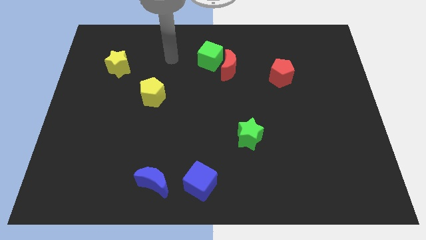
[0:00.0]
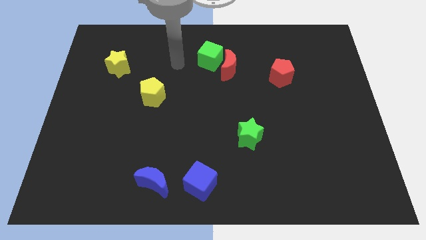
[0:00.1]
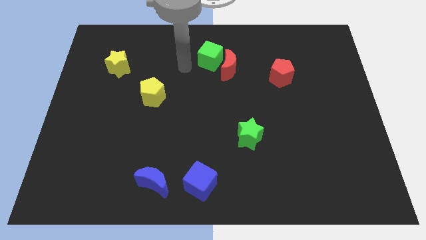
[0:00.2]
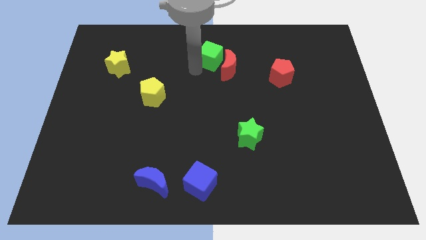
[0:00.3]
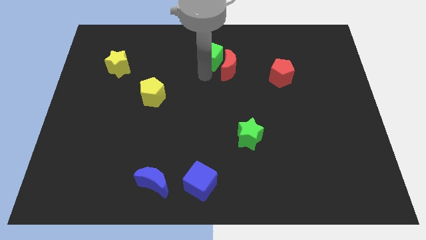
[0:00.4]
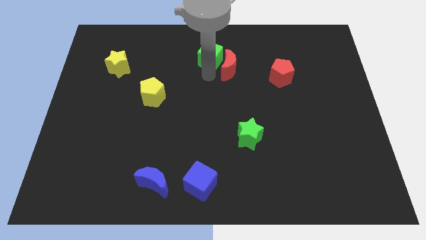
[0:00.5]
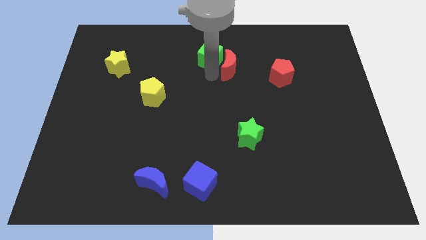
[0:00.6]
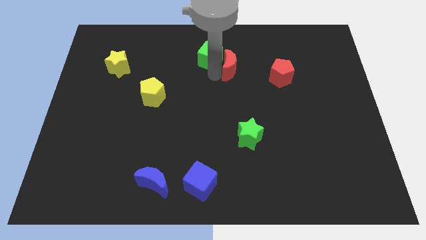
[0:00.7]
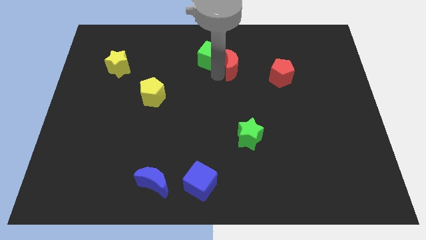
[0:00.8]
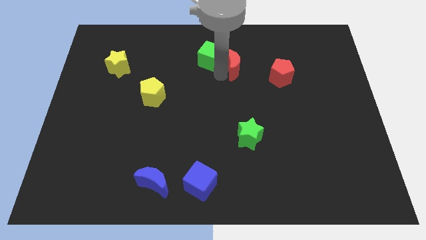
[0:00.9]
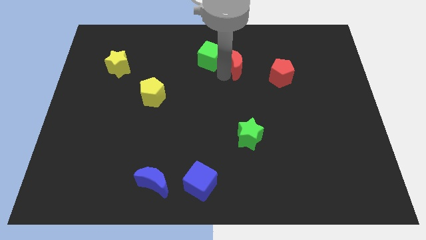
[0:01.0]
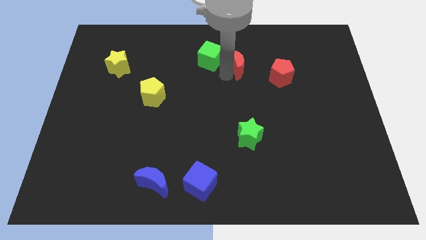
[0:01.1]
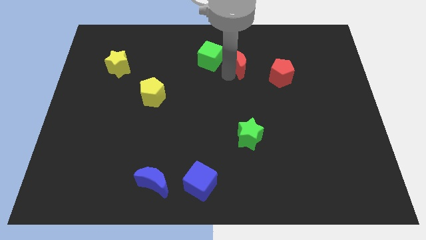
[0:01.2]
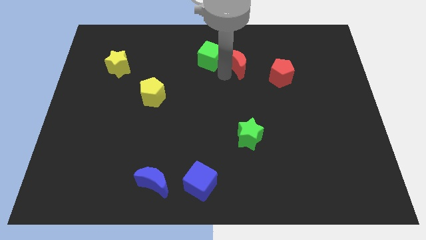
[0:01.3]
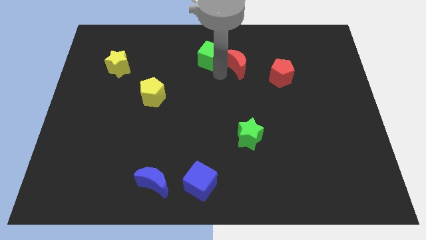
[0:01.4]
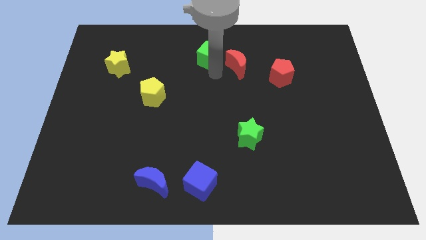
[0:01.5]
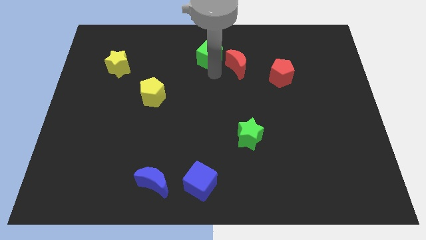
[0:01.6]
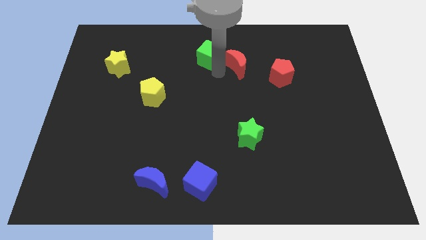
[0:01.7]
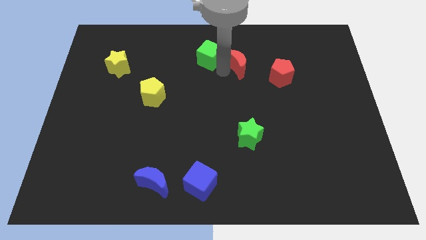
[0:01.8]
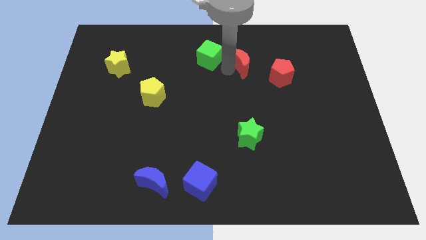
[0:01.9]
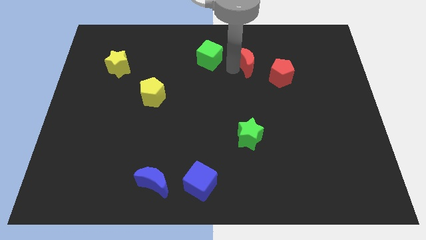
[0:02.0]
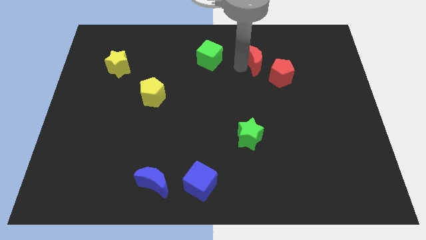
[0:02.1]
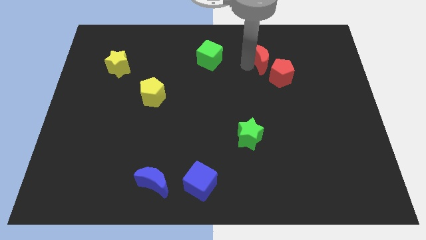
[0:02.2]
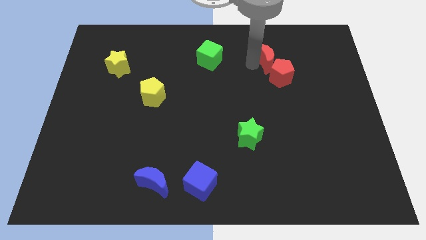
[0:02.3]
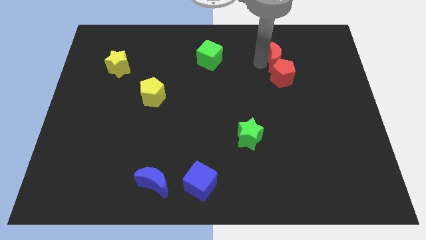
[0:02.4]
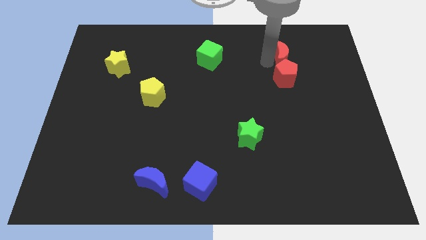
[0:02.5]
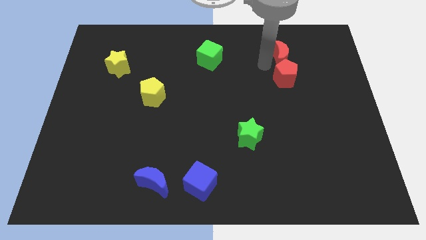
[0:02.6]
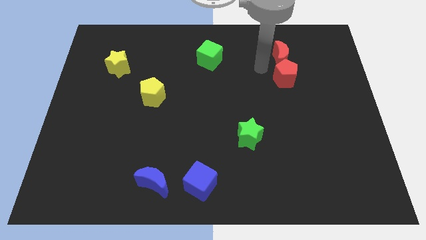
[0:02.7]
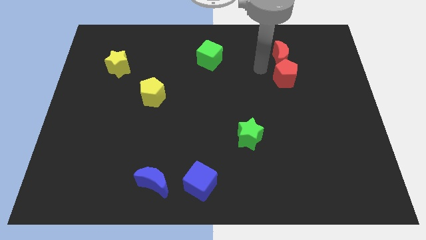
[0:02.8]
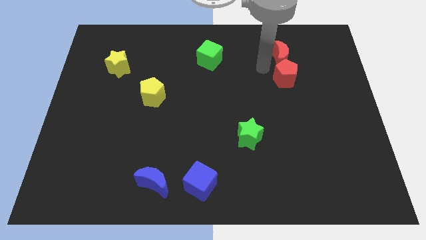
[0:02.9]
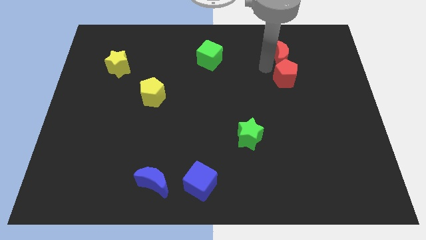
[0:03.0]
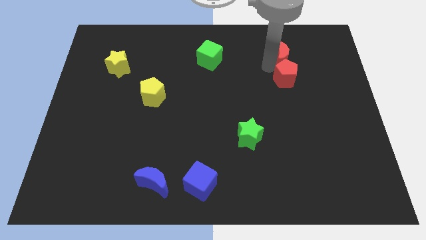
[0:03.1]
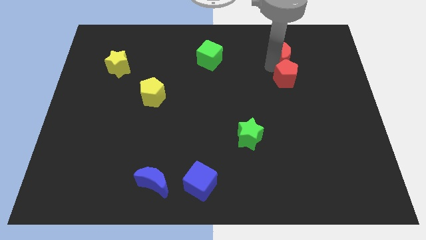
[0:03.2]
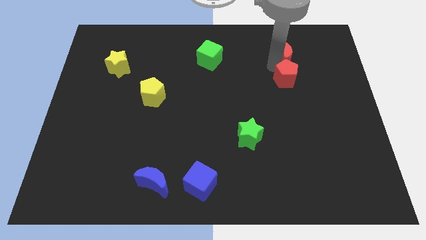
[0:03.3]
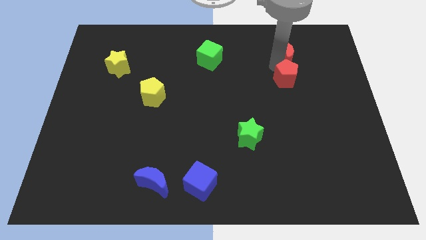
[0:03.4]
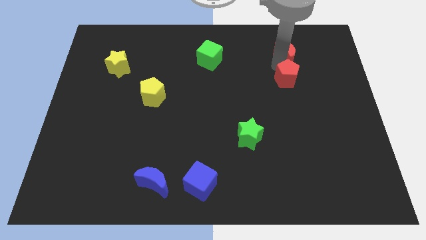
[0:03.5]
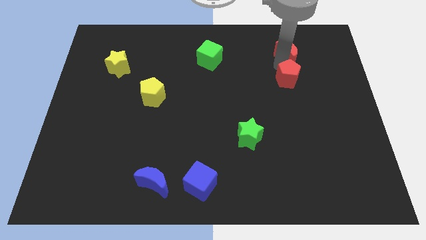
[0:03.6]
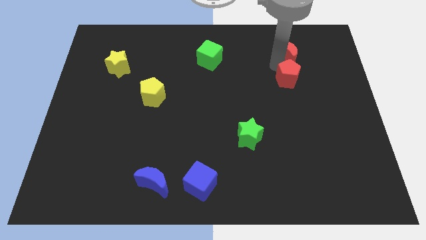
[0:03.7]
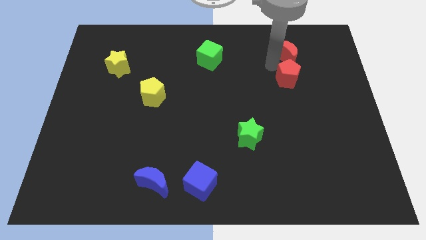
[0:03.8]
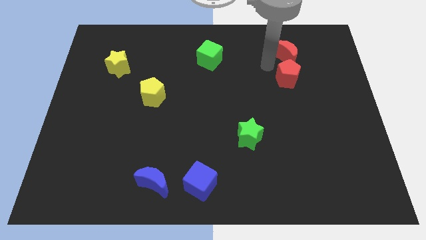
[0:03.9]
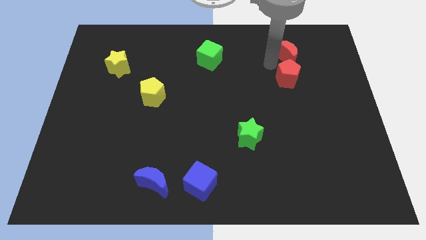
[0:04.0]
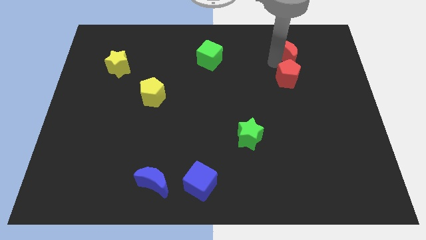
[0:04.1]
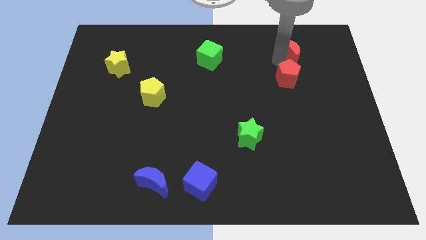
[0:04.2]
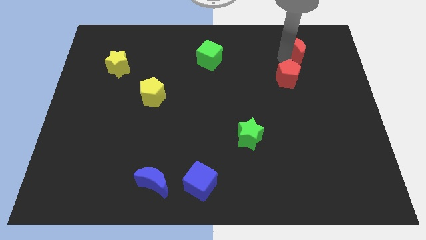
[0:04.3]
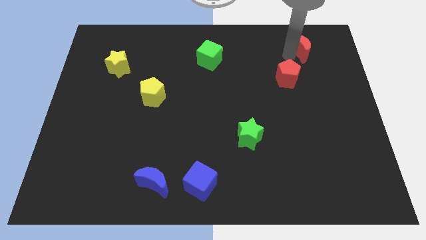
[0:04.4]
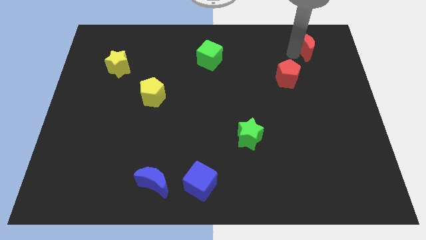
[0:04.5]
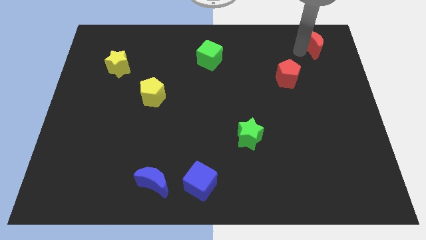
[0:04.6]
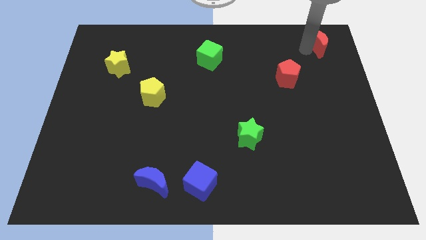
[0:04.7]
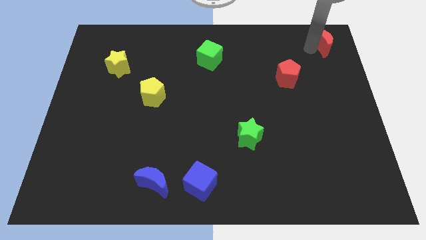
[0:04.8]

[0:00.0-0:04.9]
slide the red moon to the top right

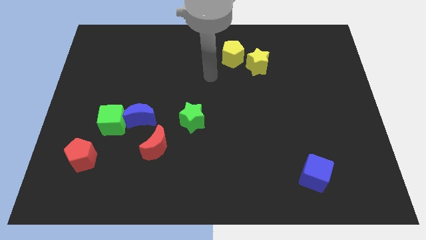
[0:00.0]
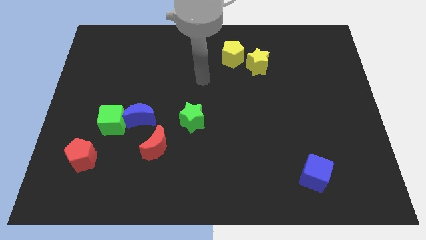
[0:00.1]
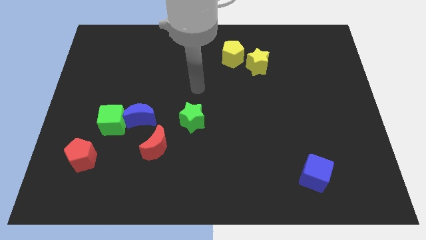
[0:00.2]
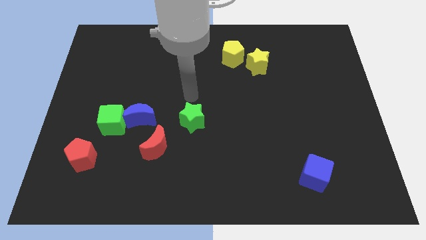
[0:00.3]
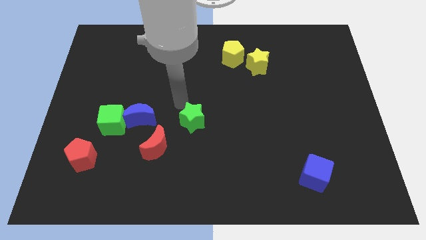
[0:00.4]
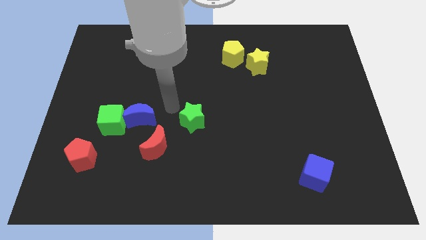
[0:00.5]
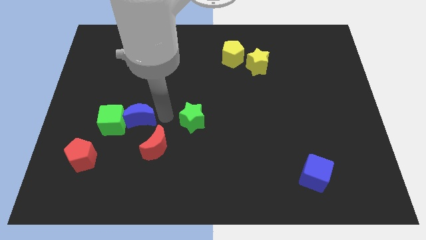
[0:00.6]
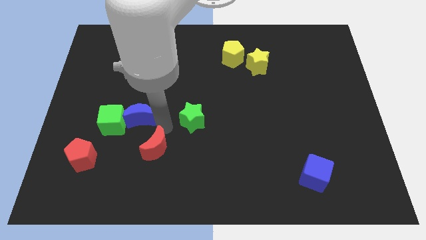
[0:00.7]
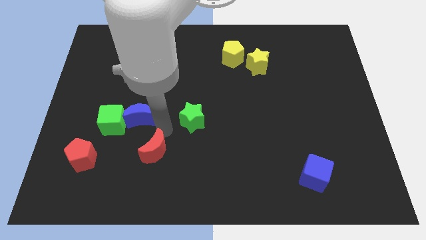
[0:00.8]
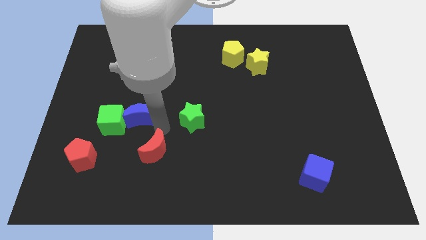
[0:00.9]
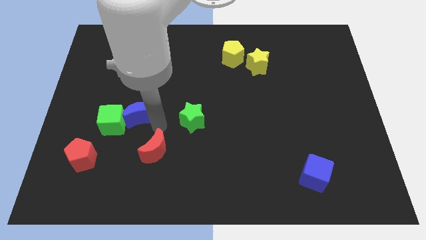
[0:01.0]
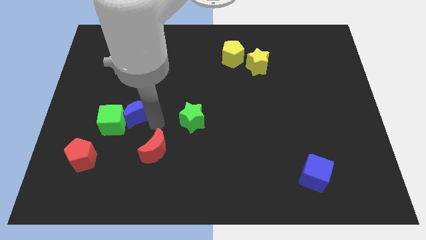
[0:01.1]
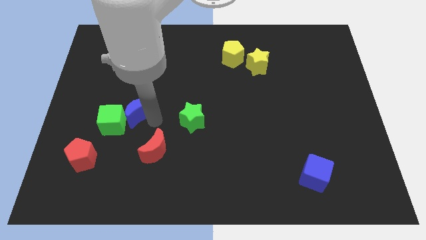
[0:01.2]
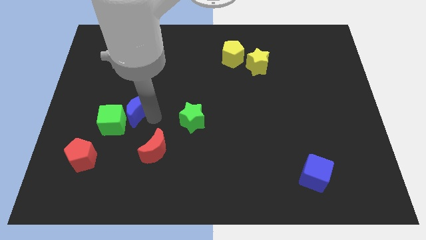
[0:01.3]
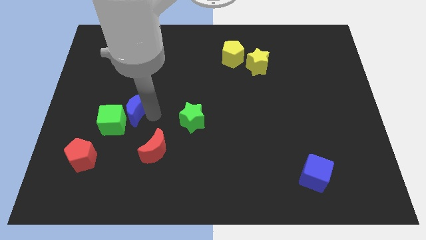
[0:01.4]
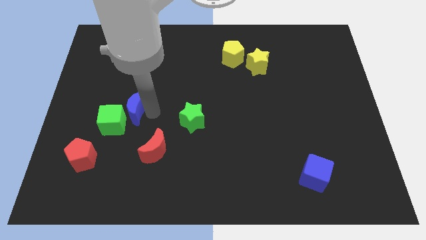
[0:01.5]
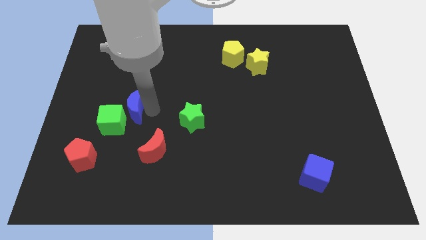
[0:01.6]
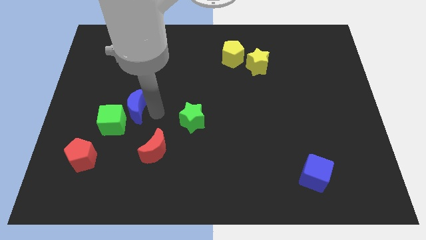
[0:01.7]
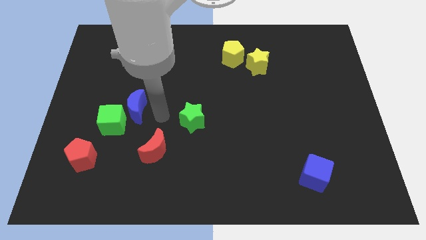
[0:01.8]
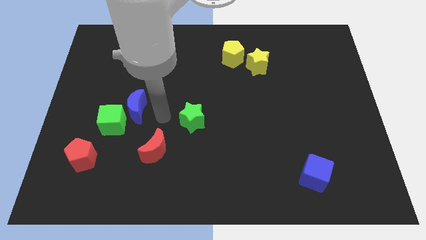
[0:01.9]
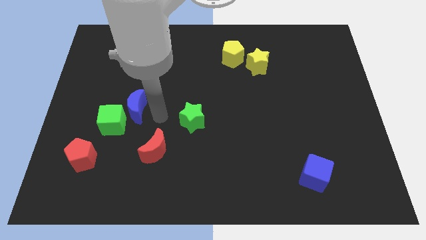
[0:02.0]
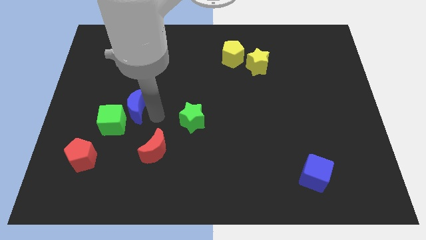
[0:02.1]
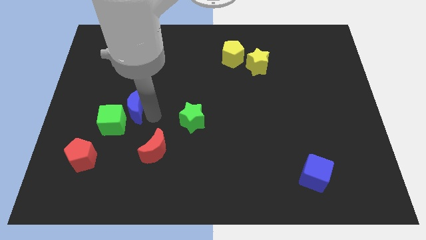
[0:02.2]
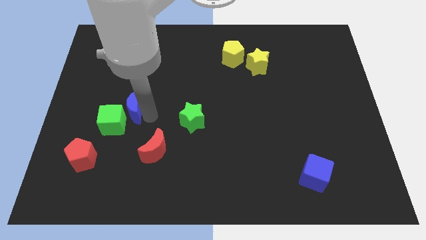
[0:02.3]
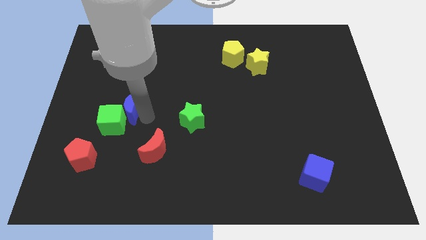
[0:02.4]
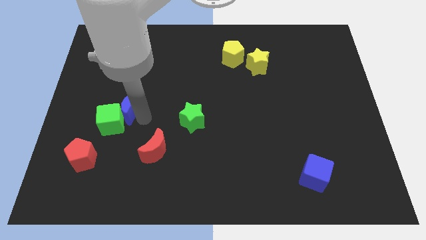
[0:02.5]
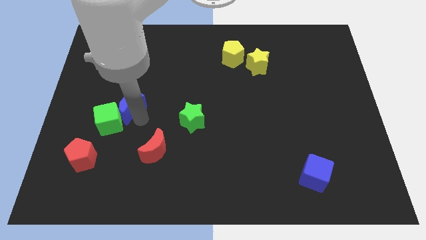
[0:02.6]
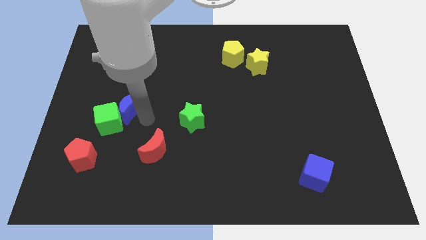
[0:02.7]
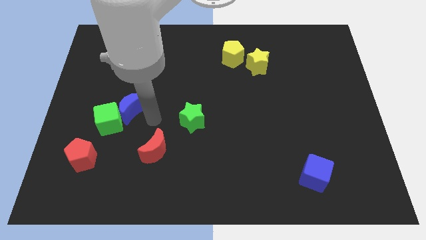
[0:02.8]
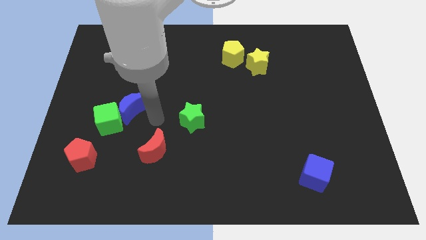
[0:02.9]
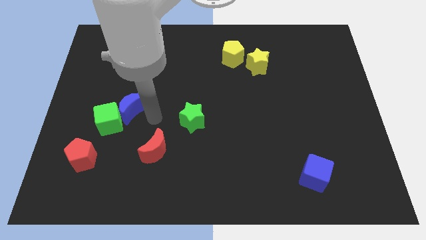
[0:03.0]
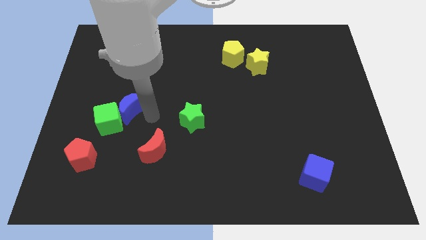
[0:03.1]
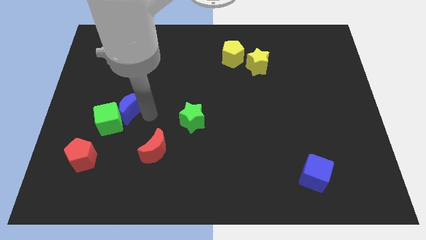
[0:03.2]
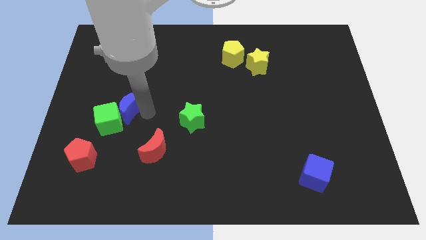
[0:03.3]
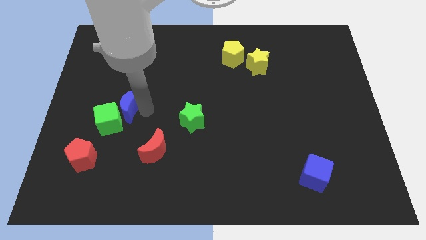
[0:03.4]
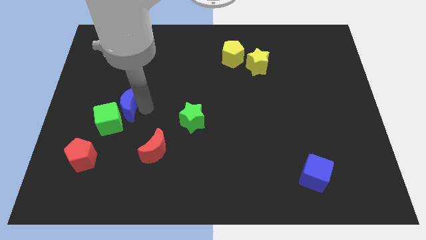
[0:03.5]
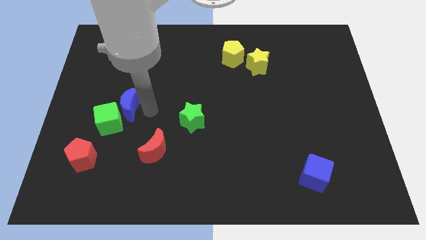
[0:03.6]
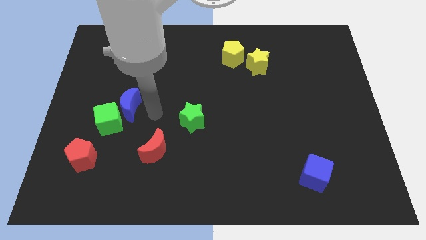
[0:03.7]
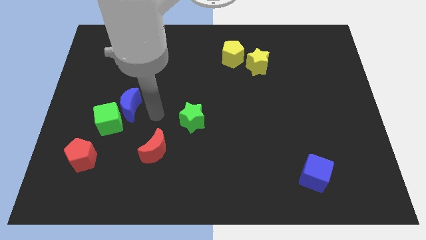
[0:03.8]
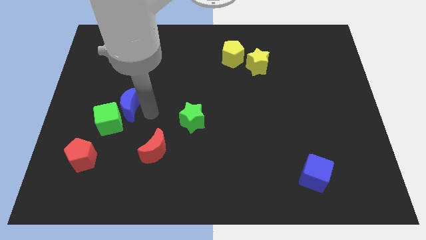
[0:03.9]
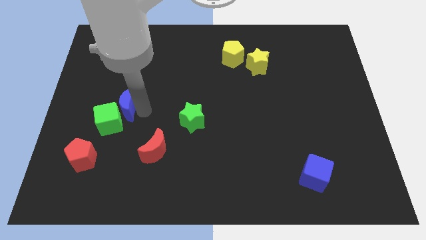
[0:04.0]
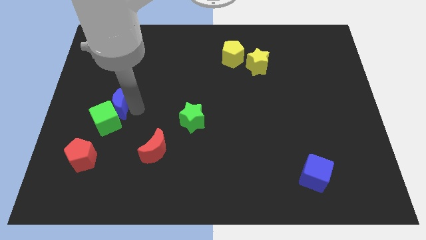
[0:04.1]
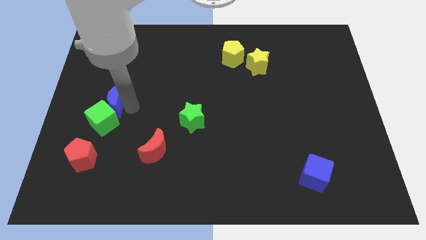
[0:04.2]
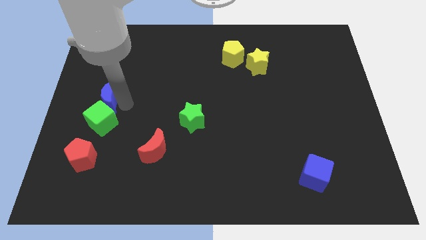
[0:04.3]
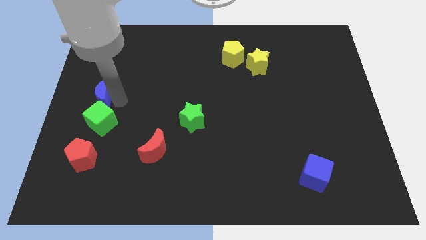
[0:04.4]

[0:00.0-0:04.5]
move the blue moon to the left side
